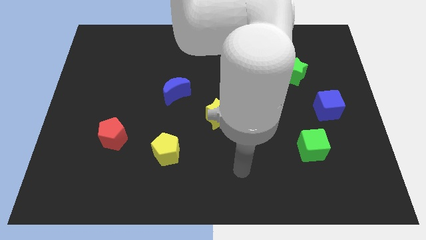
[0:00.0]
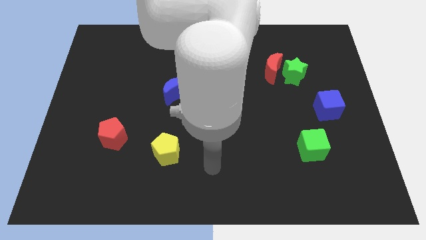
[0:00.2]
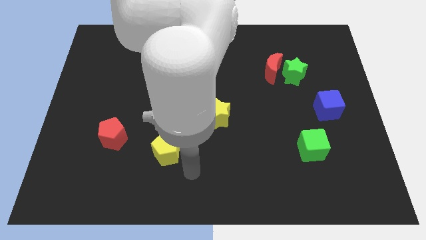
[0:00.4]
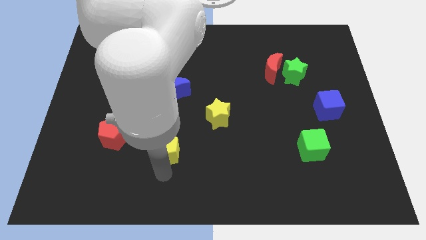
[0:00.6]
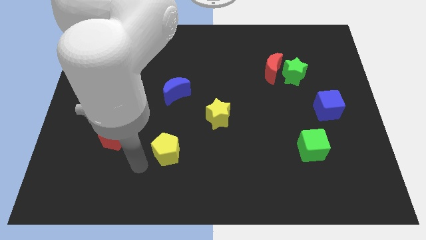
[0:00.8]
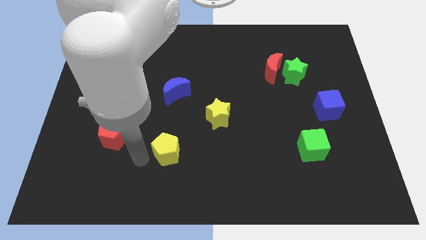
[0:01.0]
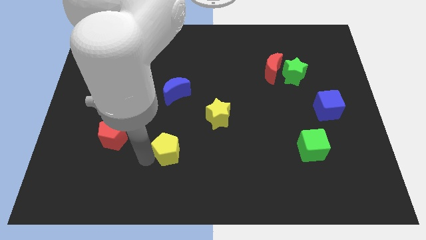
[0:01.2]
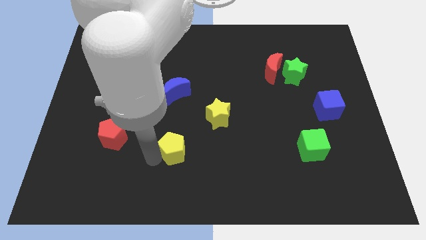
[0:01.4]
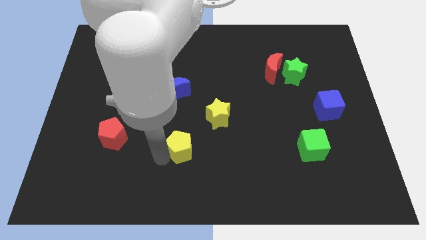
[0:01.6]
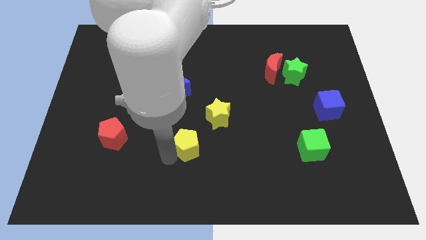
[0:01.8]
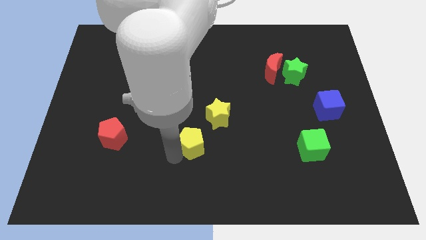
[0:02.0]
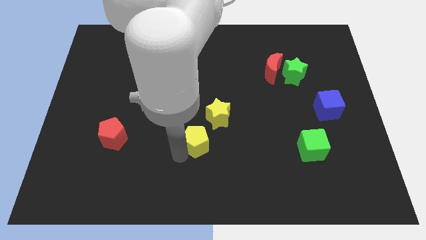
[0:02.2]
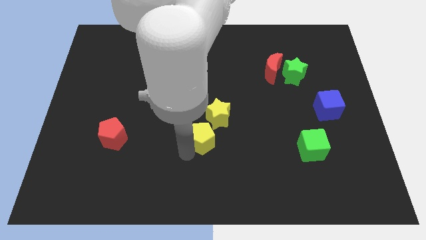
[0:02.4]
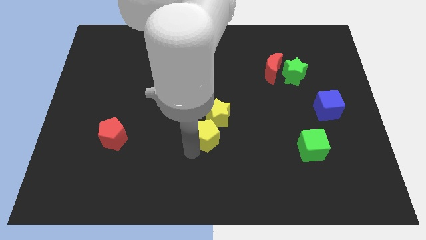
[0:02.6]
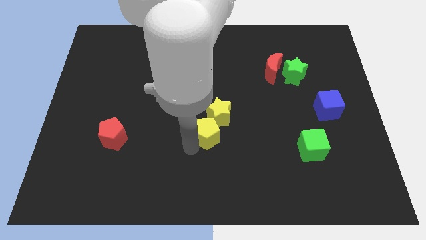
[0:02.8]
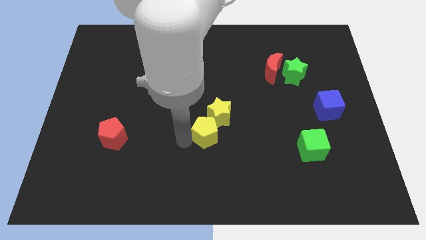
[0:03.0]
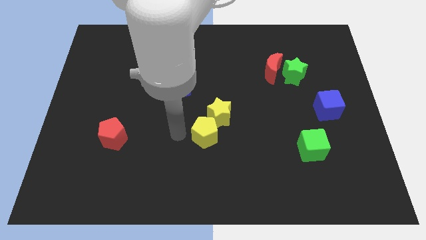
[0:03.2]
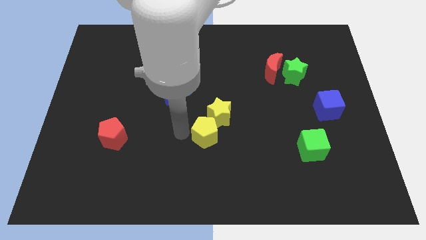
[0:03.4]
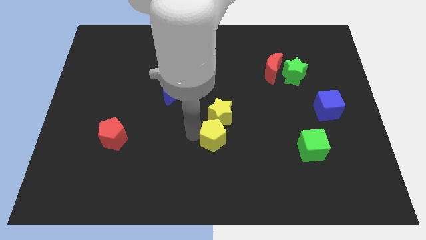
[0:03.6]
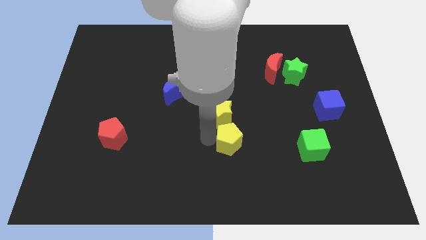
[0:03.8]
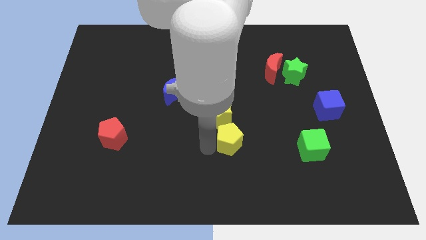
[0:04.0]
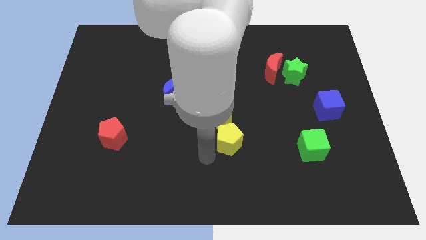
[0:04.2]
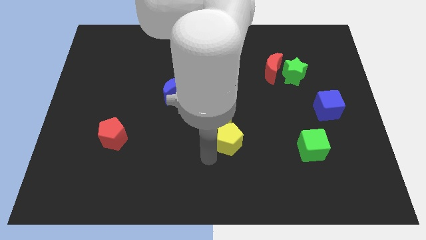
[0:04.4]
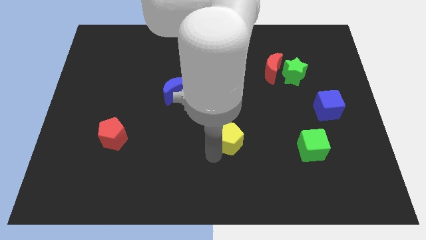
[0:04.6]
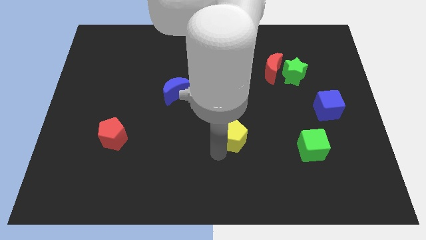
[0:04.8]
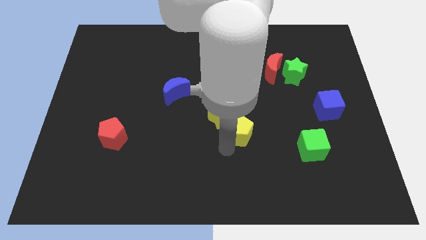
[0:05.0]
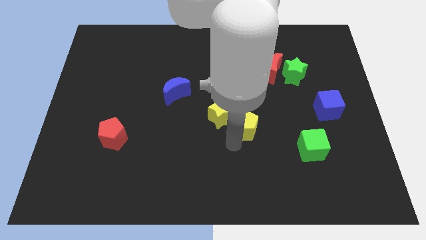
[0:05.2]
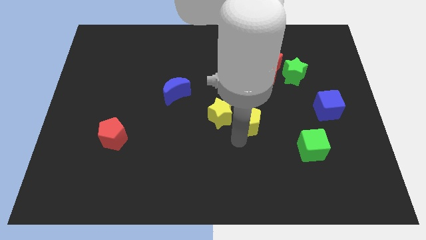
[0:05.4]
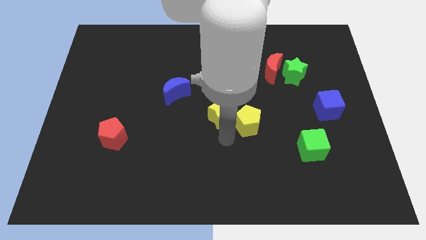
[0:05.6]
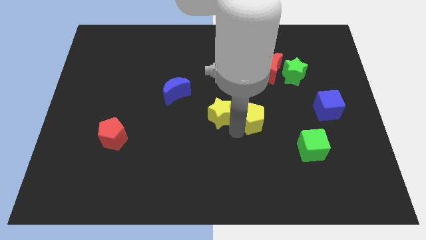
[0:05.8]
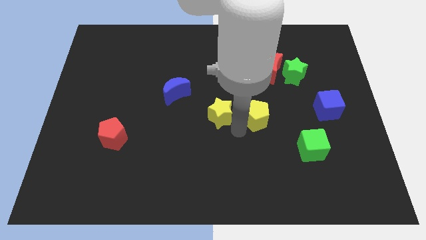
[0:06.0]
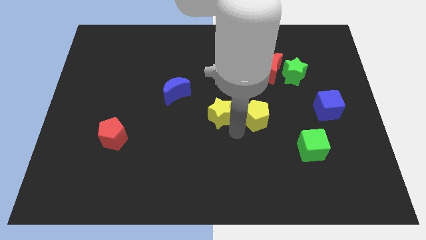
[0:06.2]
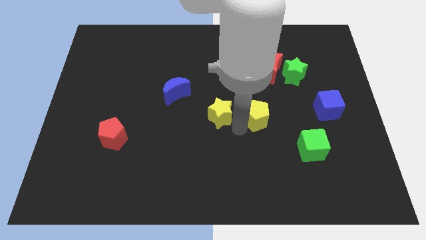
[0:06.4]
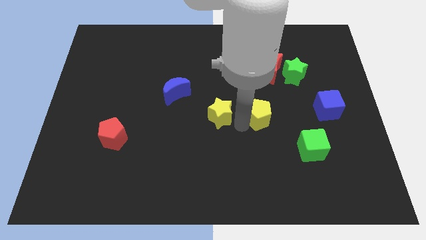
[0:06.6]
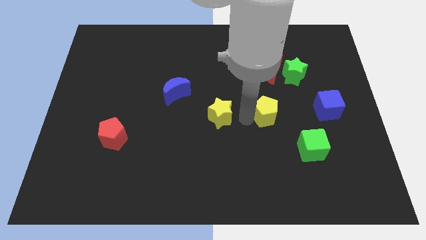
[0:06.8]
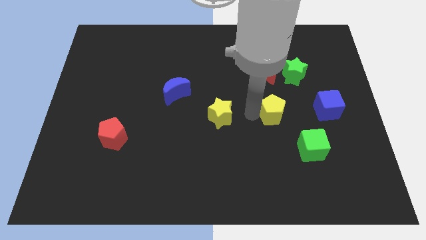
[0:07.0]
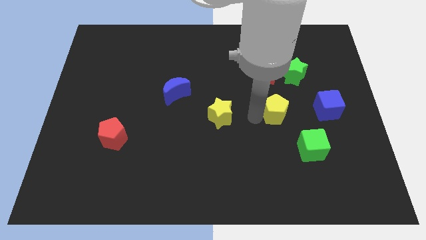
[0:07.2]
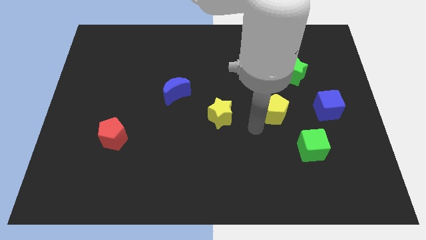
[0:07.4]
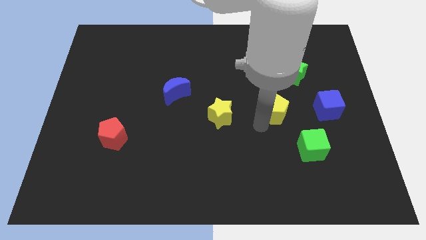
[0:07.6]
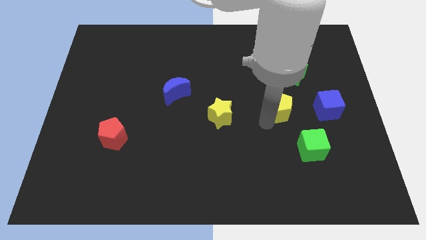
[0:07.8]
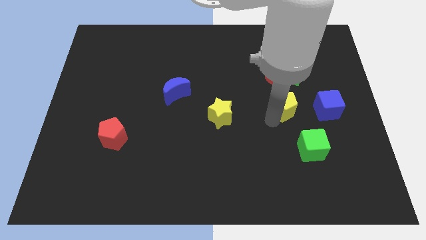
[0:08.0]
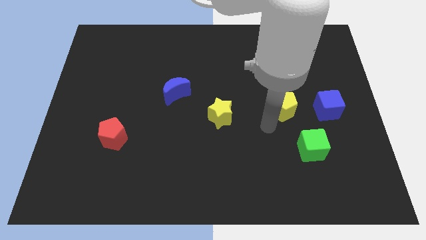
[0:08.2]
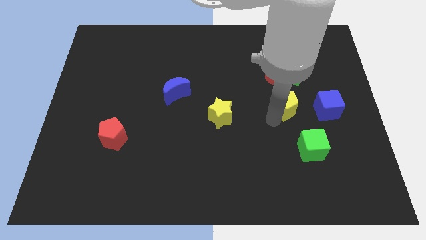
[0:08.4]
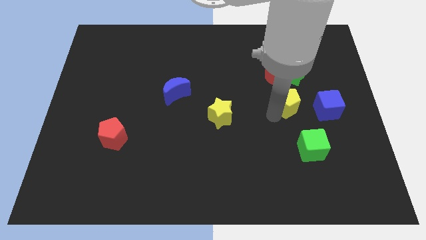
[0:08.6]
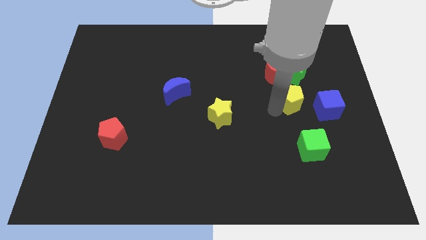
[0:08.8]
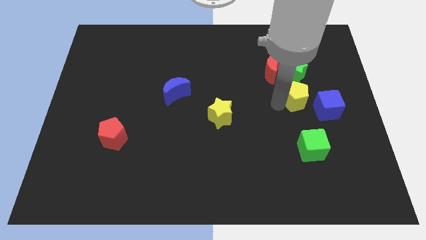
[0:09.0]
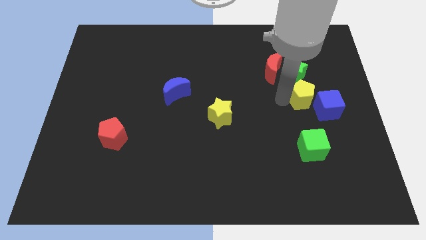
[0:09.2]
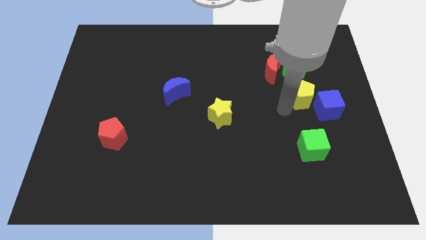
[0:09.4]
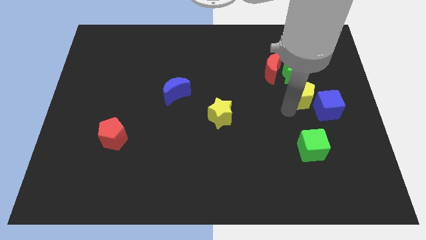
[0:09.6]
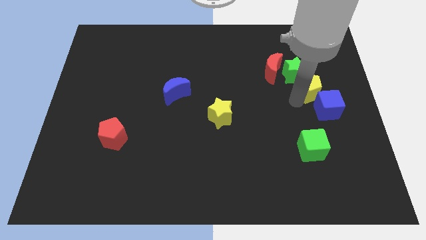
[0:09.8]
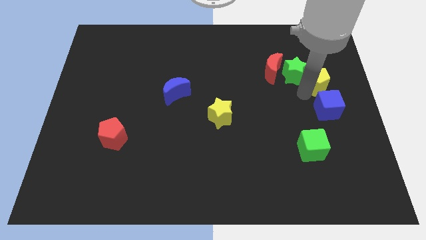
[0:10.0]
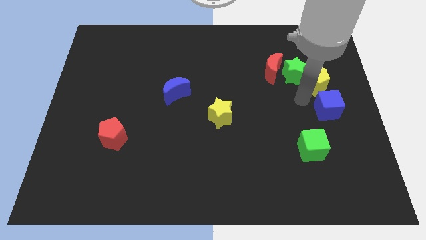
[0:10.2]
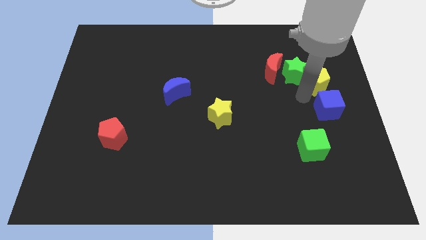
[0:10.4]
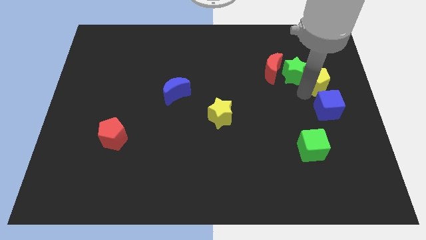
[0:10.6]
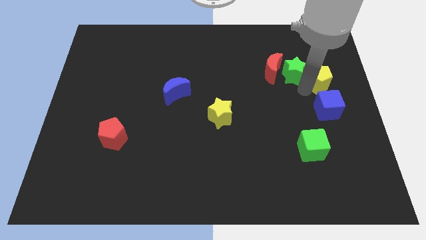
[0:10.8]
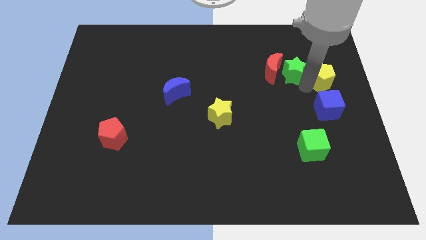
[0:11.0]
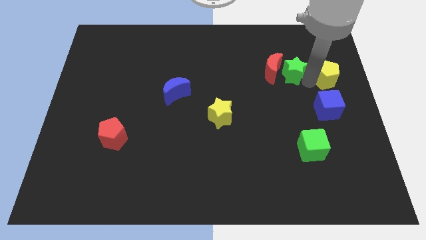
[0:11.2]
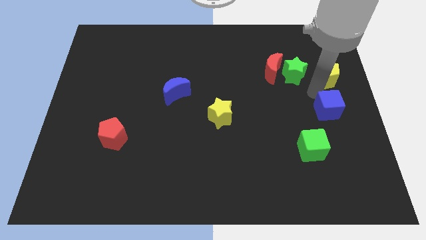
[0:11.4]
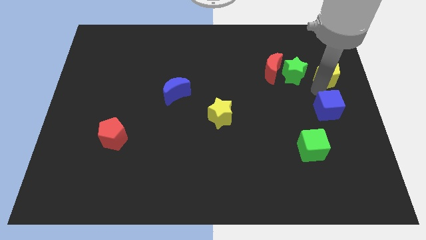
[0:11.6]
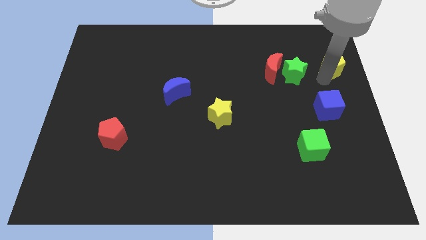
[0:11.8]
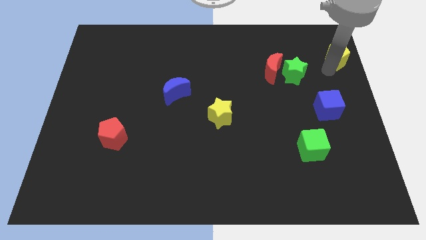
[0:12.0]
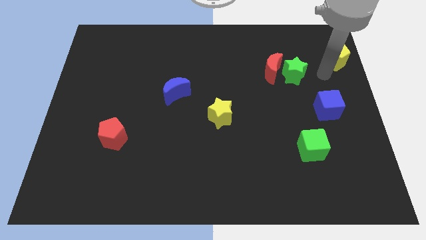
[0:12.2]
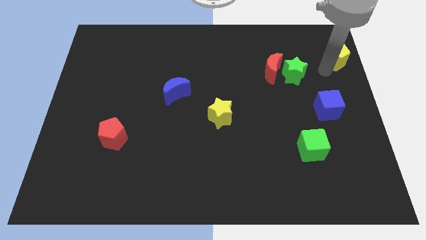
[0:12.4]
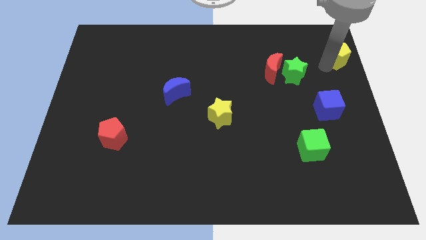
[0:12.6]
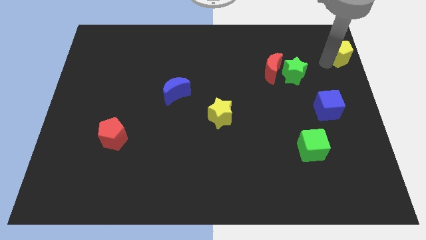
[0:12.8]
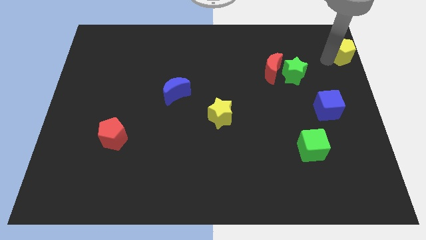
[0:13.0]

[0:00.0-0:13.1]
put the yellow pentagon to the upper right corner

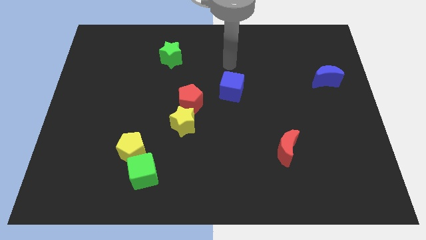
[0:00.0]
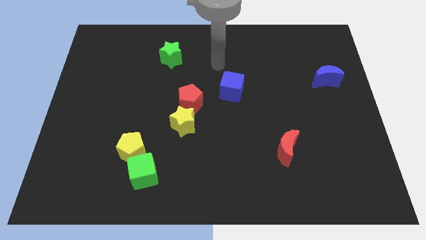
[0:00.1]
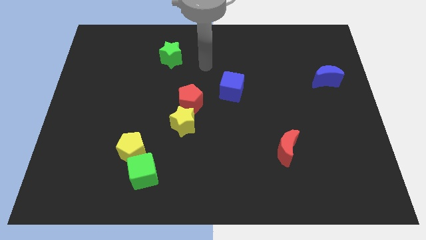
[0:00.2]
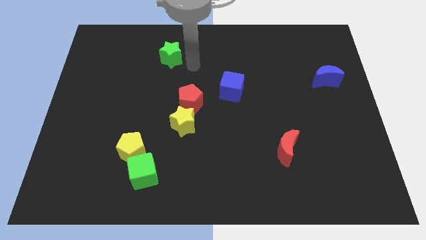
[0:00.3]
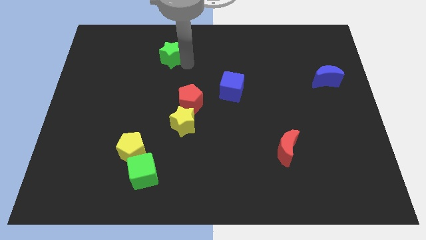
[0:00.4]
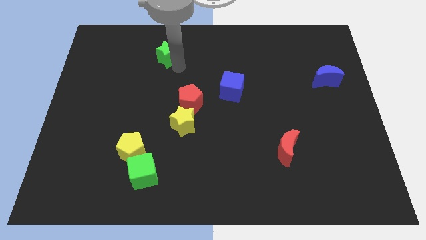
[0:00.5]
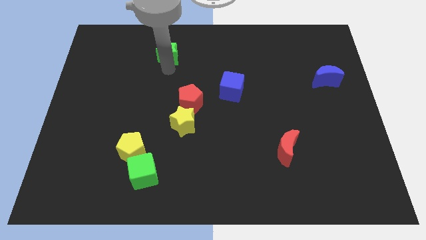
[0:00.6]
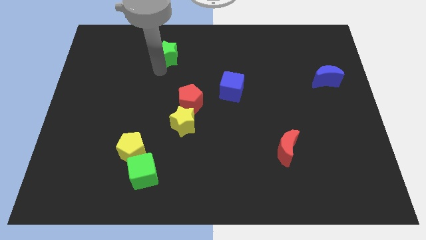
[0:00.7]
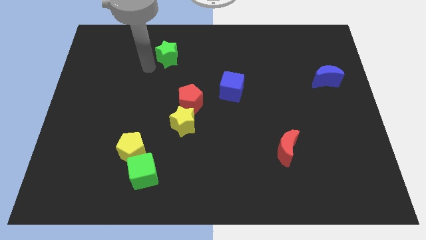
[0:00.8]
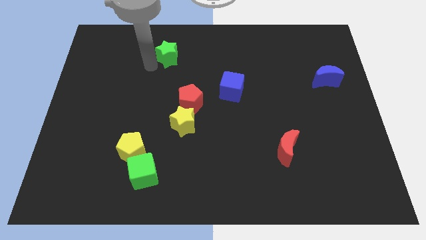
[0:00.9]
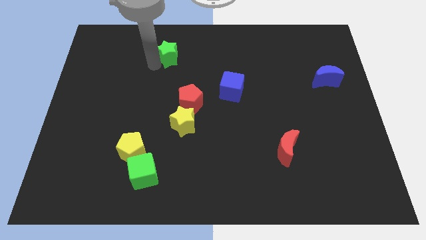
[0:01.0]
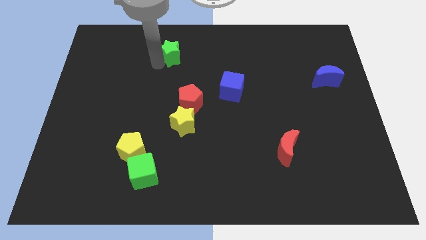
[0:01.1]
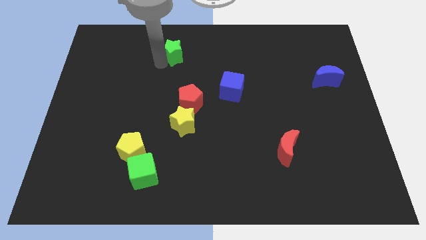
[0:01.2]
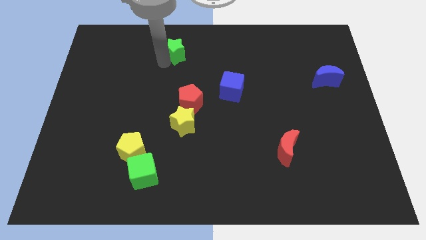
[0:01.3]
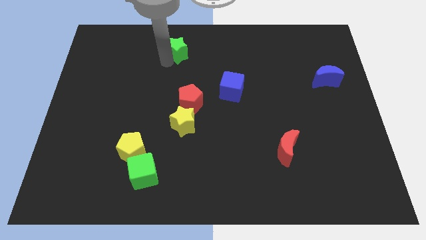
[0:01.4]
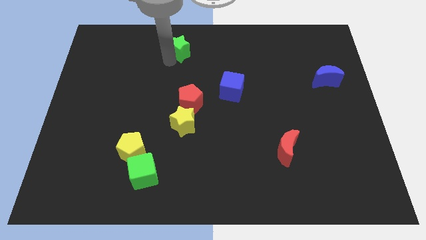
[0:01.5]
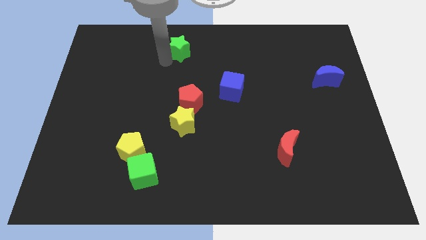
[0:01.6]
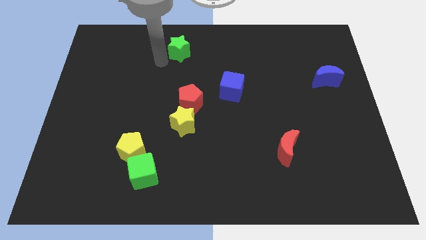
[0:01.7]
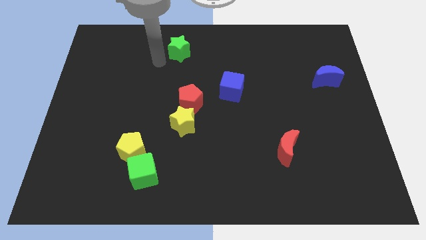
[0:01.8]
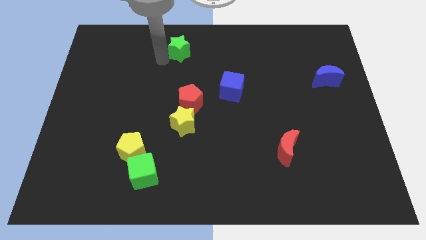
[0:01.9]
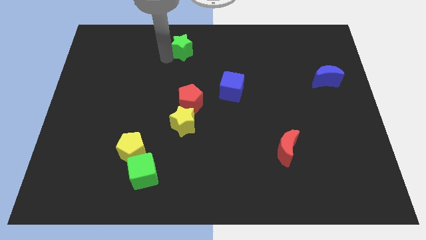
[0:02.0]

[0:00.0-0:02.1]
put the green star to the towards your base
